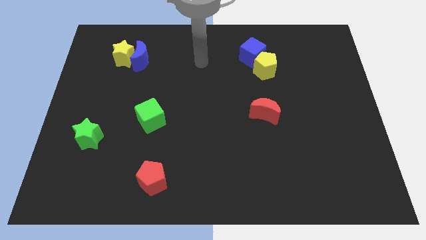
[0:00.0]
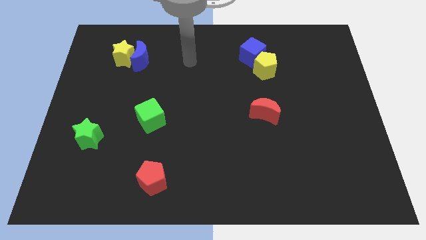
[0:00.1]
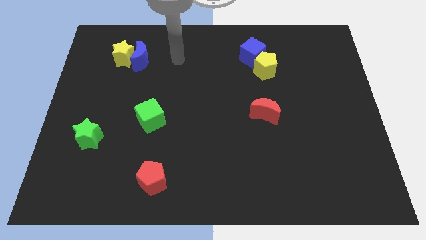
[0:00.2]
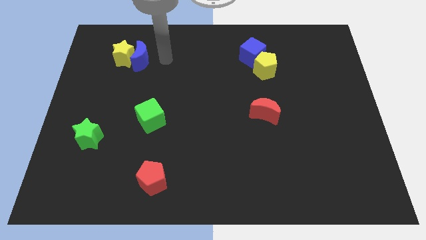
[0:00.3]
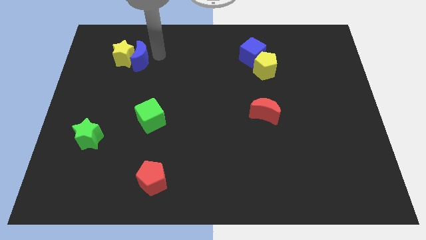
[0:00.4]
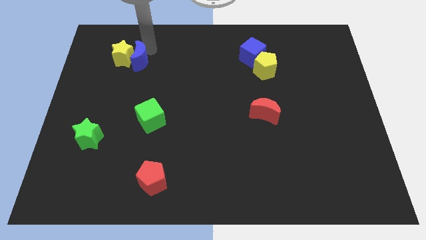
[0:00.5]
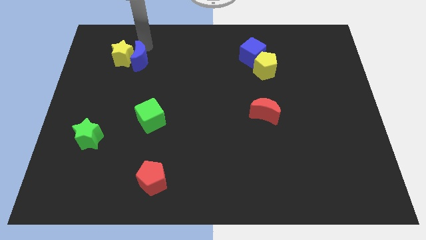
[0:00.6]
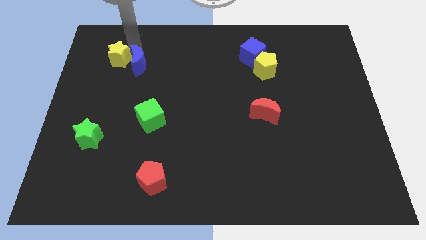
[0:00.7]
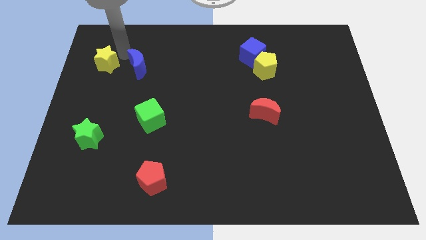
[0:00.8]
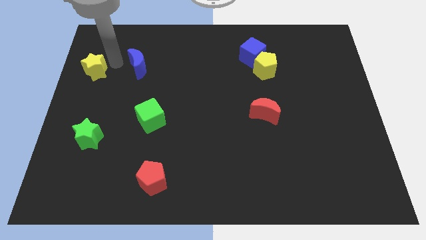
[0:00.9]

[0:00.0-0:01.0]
pull the blue moon apart from the yellow star

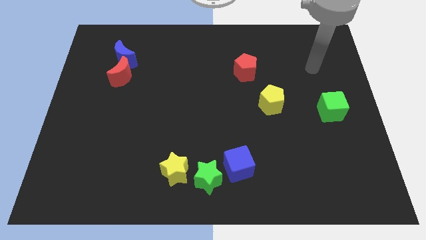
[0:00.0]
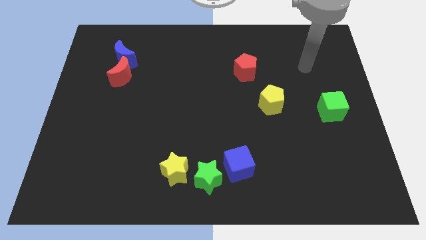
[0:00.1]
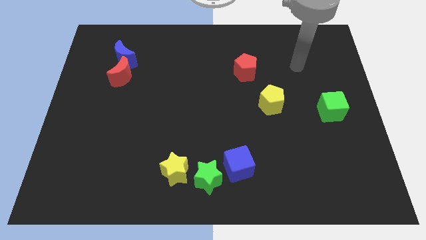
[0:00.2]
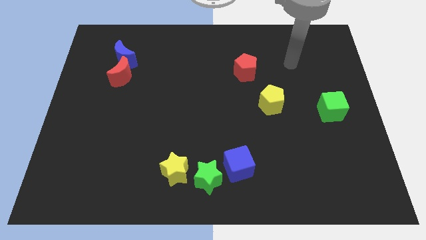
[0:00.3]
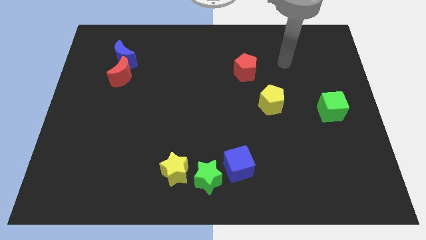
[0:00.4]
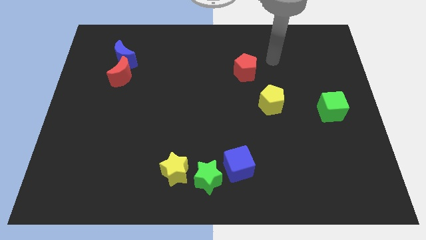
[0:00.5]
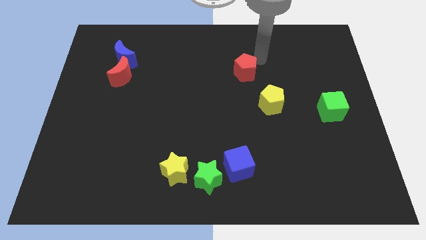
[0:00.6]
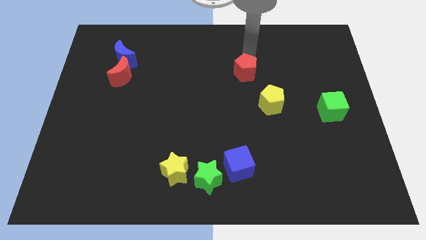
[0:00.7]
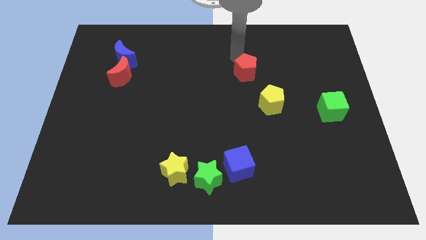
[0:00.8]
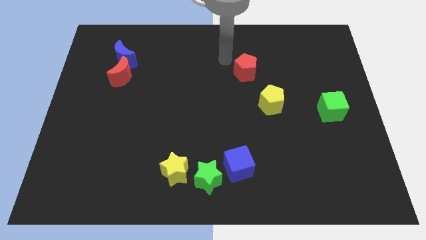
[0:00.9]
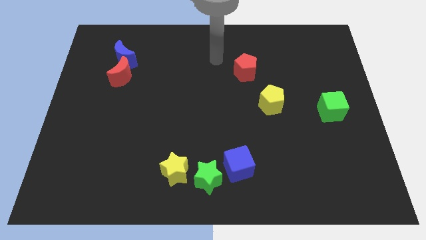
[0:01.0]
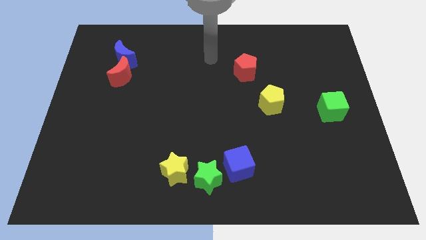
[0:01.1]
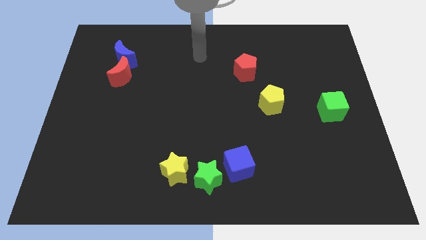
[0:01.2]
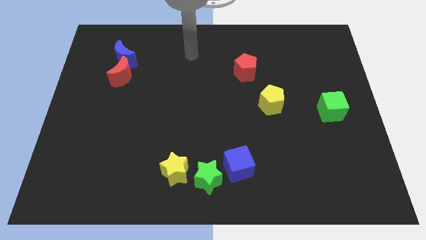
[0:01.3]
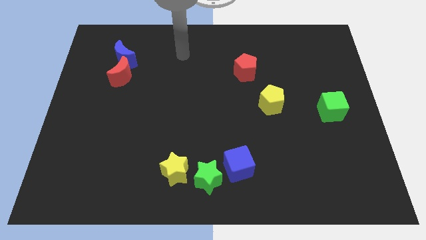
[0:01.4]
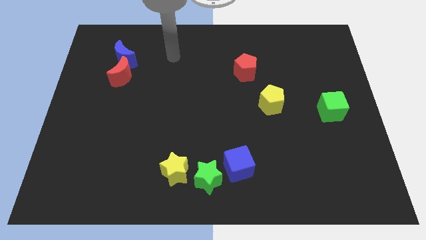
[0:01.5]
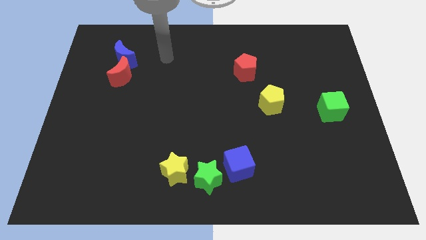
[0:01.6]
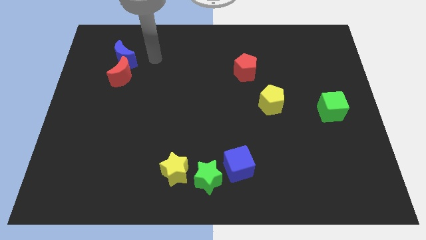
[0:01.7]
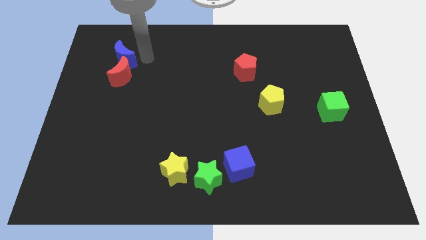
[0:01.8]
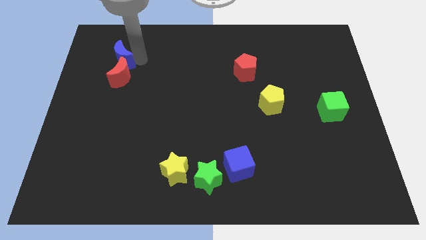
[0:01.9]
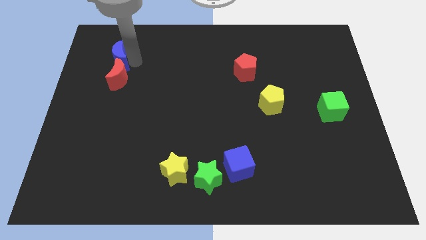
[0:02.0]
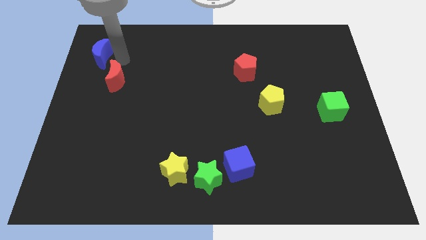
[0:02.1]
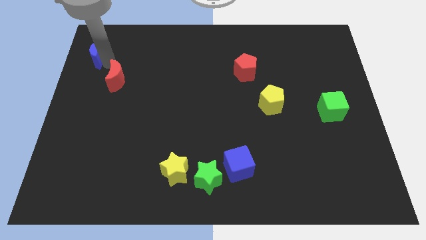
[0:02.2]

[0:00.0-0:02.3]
move the red moon away from the blue moon

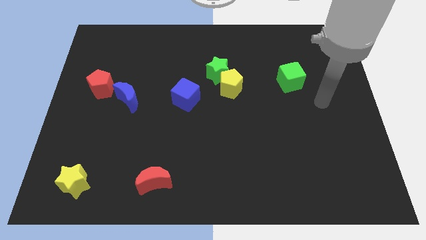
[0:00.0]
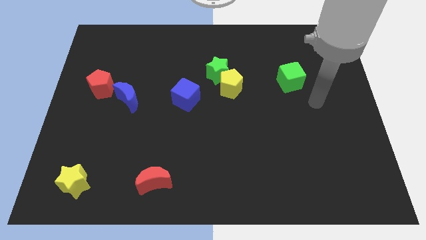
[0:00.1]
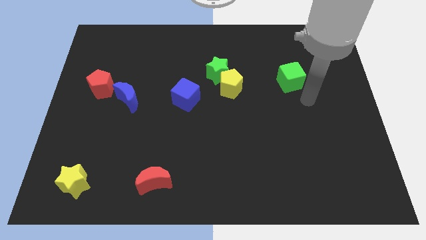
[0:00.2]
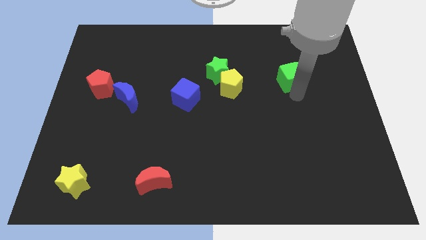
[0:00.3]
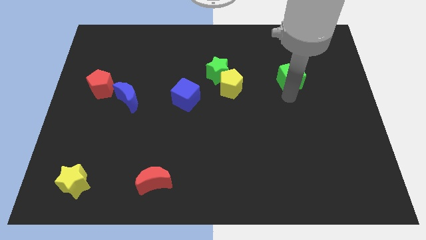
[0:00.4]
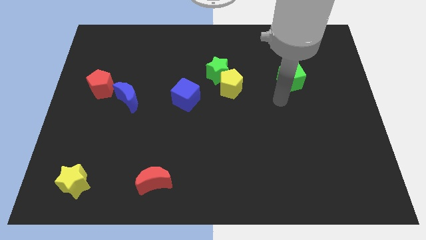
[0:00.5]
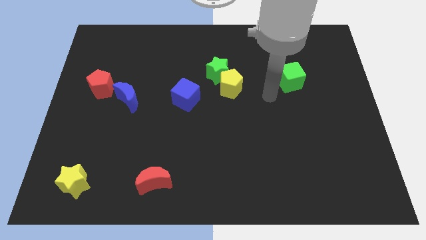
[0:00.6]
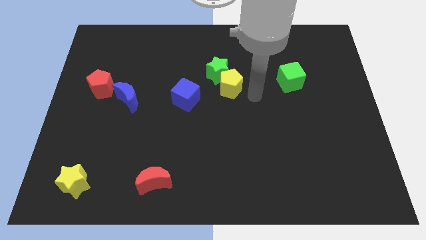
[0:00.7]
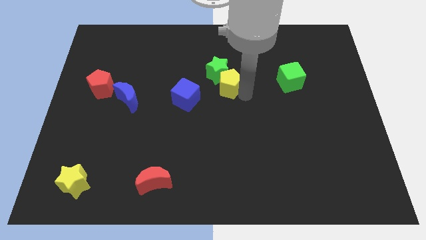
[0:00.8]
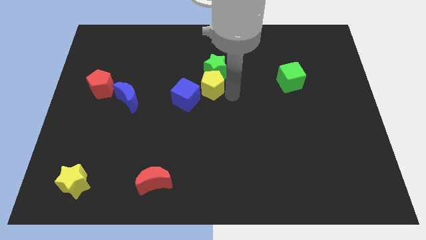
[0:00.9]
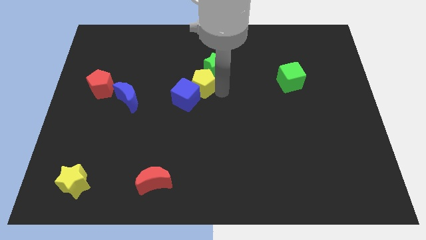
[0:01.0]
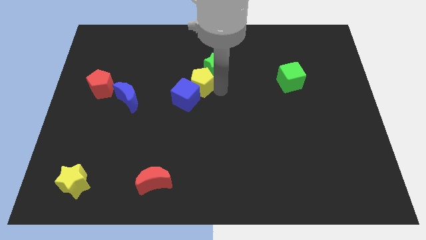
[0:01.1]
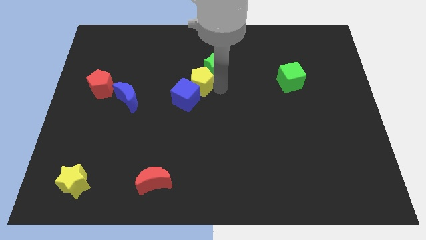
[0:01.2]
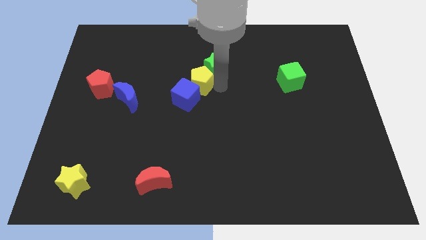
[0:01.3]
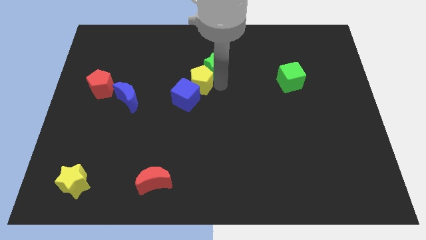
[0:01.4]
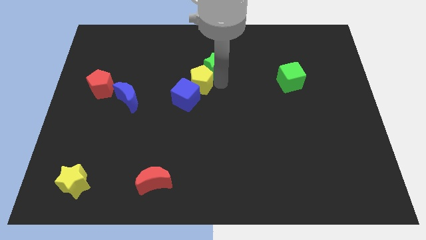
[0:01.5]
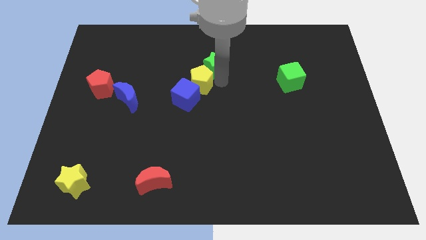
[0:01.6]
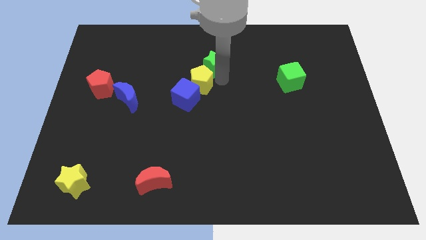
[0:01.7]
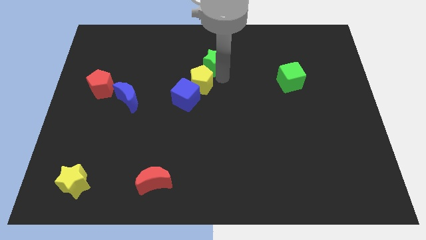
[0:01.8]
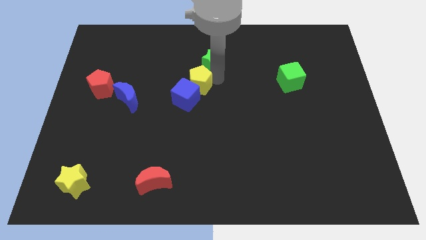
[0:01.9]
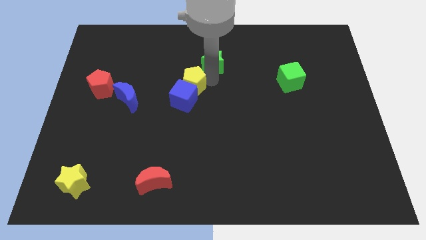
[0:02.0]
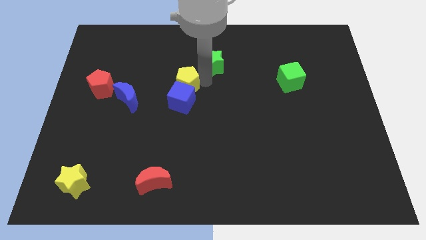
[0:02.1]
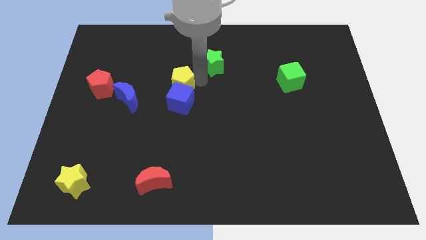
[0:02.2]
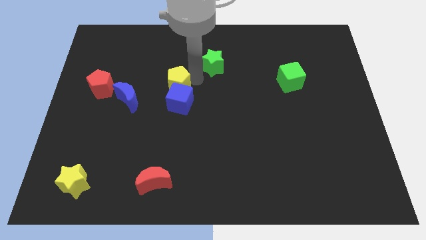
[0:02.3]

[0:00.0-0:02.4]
separate the green star from the yellow pentagon

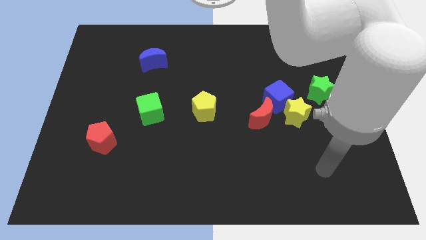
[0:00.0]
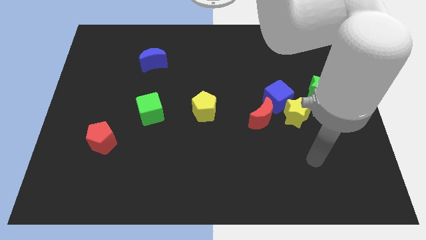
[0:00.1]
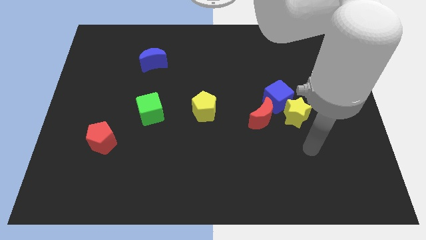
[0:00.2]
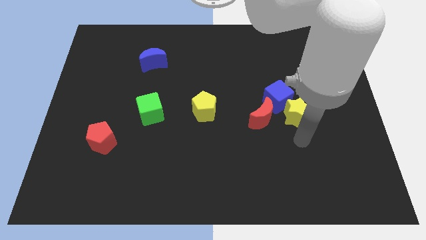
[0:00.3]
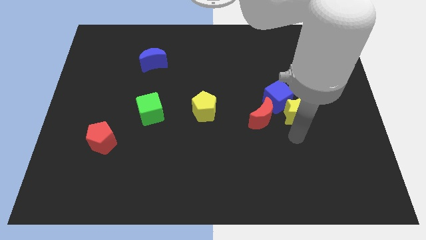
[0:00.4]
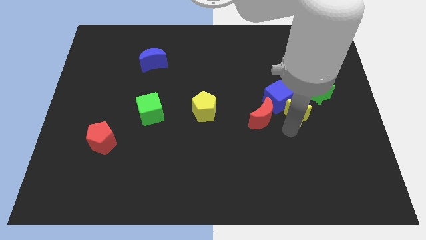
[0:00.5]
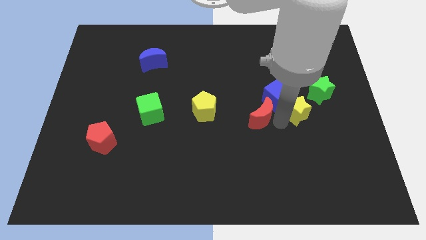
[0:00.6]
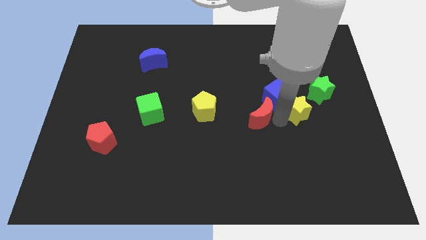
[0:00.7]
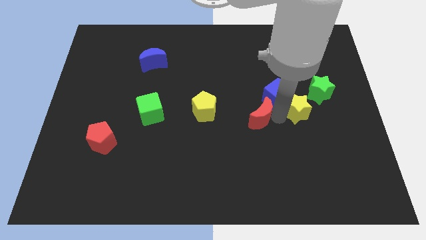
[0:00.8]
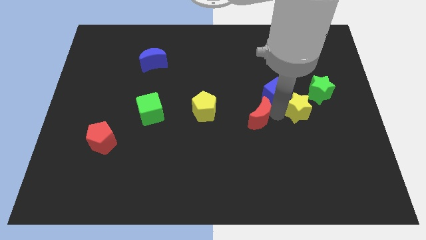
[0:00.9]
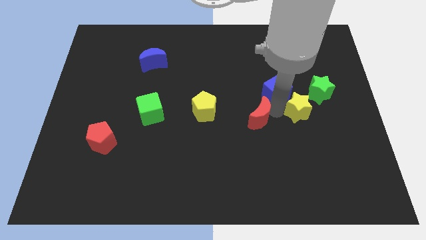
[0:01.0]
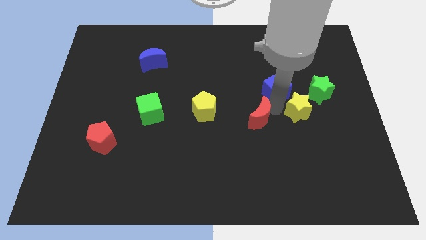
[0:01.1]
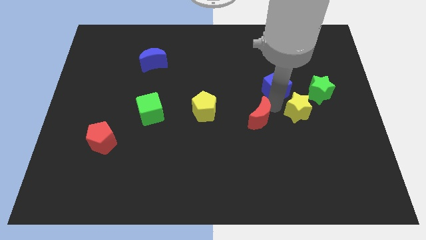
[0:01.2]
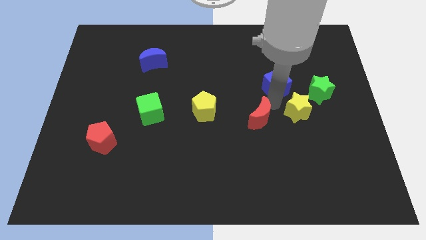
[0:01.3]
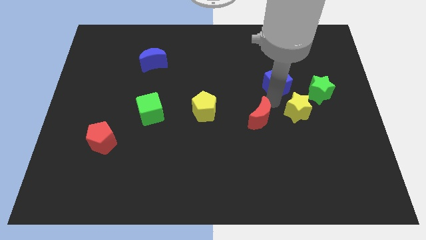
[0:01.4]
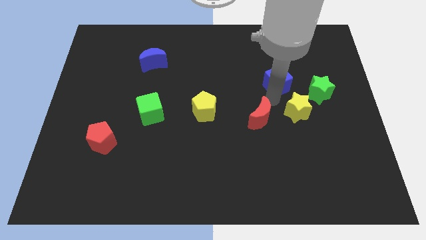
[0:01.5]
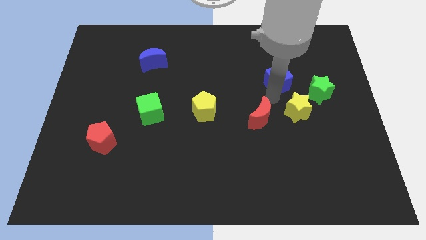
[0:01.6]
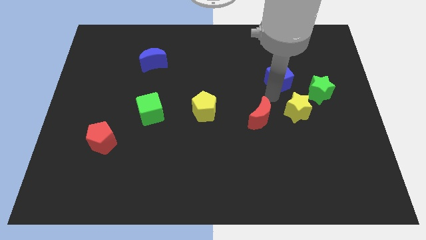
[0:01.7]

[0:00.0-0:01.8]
separate the blue cube from the yellow star and red moon

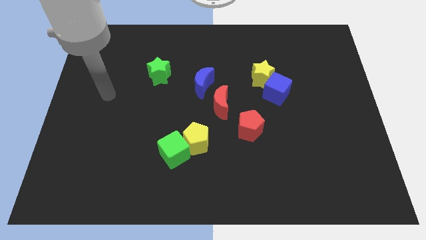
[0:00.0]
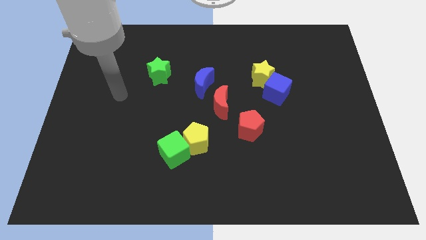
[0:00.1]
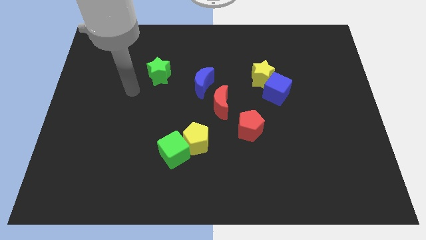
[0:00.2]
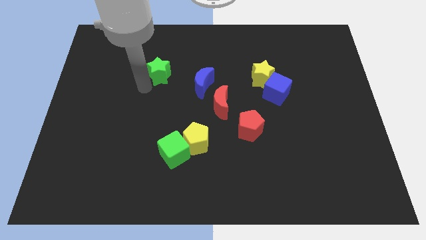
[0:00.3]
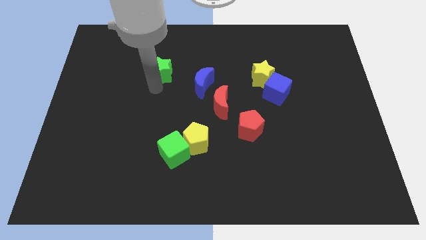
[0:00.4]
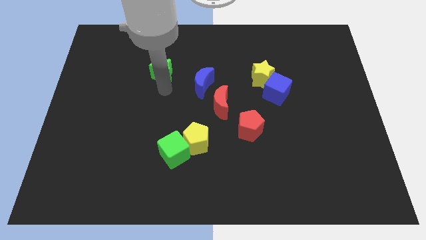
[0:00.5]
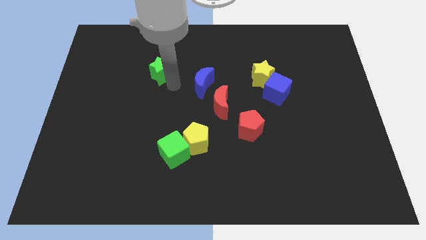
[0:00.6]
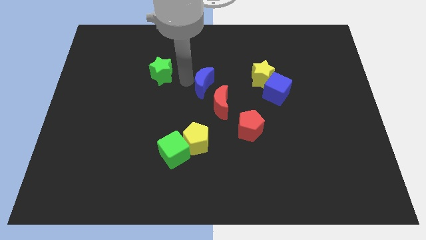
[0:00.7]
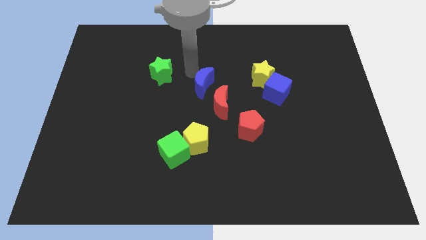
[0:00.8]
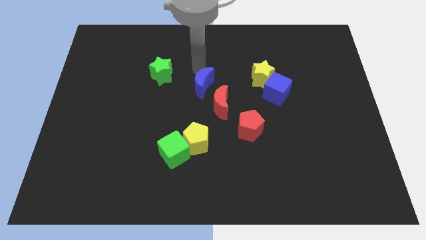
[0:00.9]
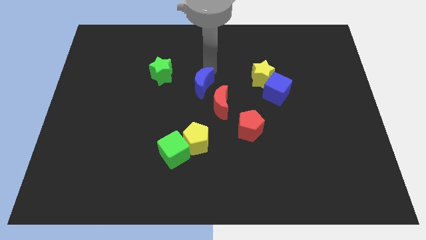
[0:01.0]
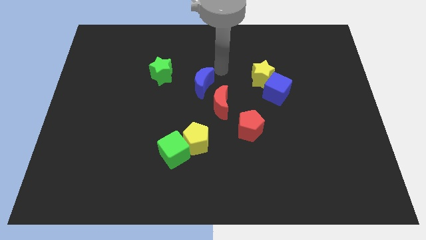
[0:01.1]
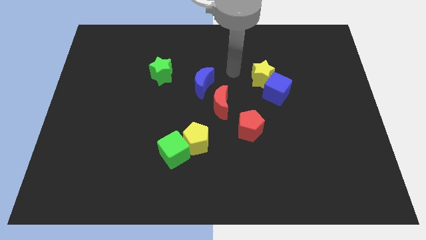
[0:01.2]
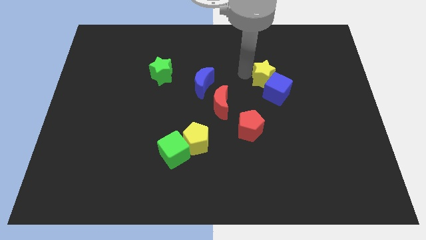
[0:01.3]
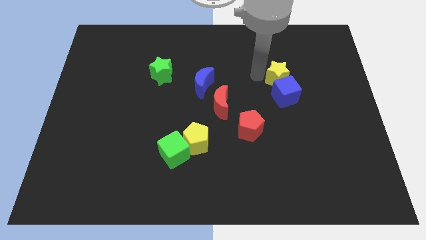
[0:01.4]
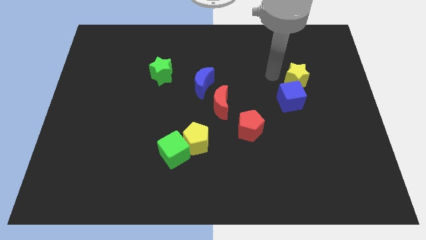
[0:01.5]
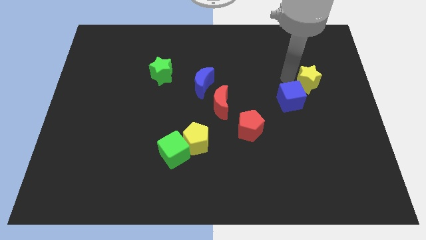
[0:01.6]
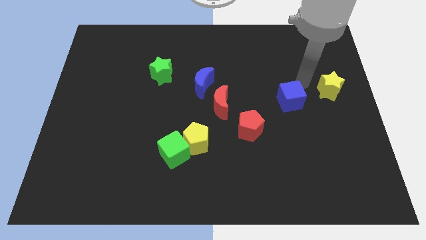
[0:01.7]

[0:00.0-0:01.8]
separate the blue cube from the yellow star
